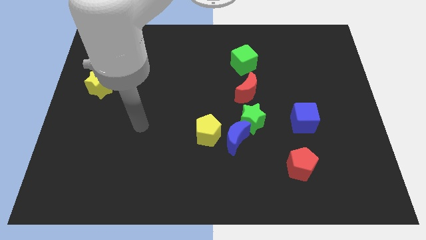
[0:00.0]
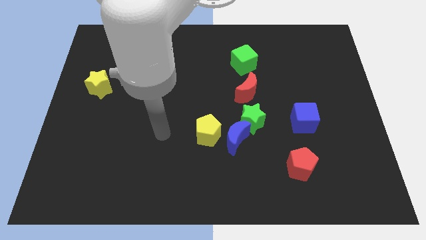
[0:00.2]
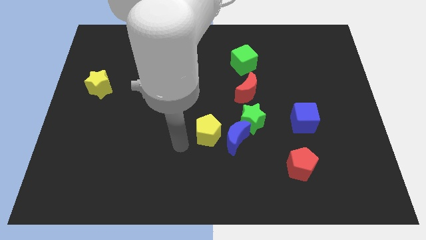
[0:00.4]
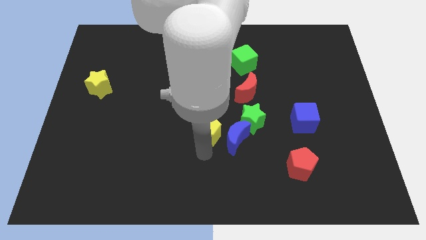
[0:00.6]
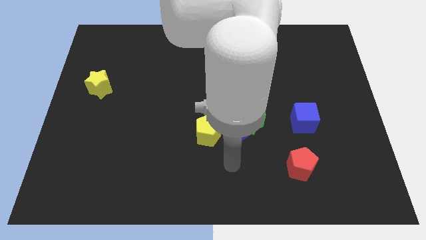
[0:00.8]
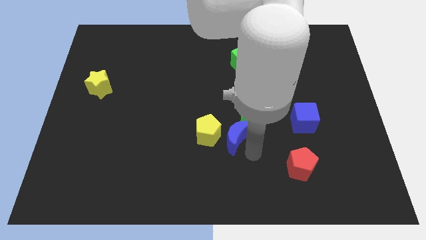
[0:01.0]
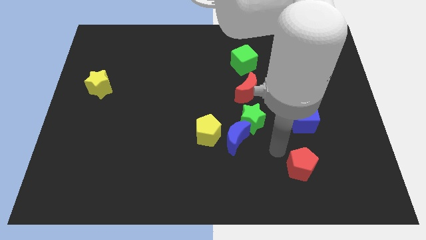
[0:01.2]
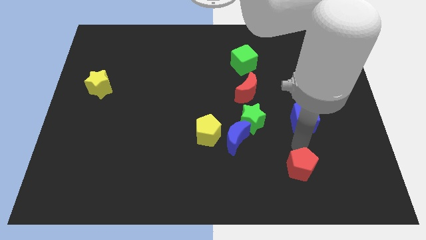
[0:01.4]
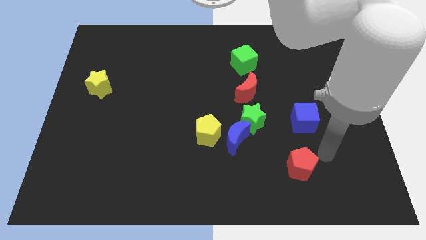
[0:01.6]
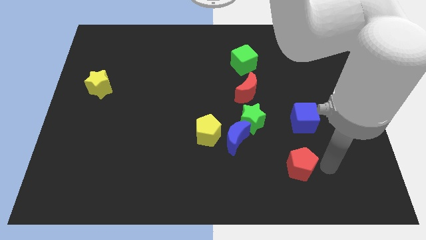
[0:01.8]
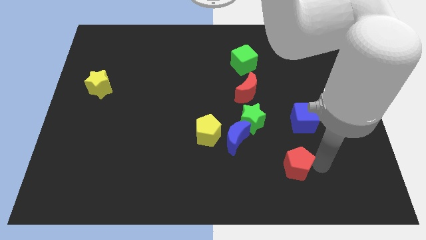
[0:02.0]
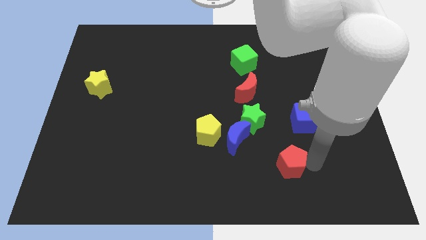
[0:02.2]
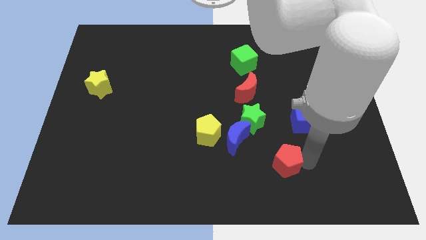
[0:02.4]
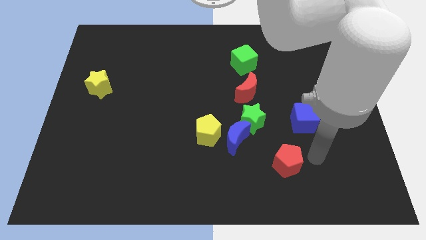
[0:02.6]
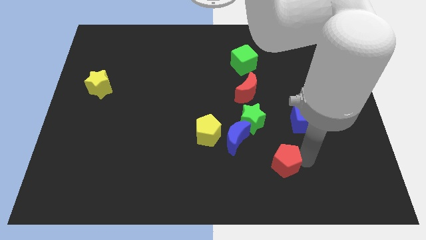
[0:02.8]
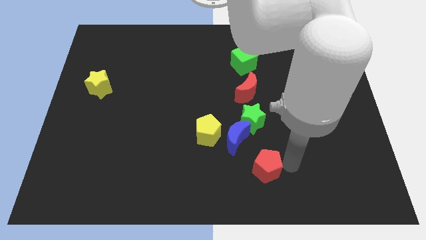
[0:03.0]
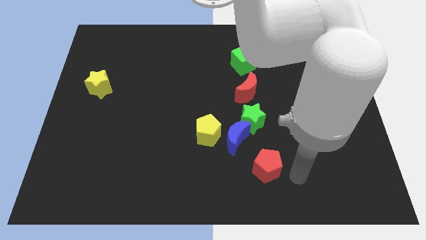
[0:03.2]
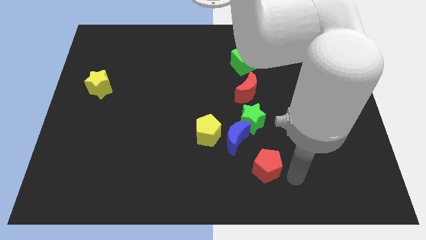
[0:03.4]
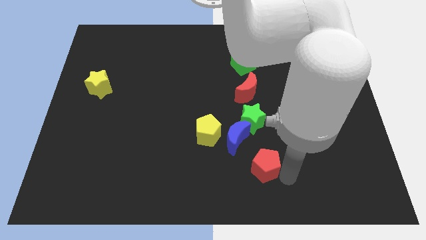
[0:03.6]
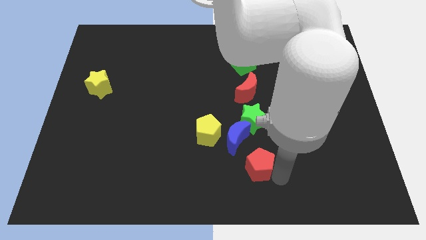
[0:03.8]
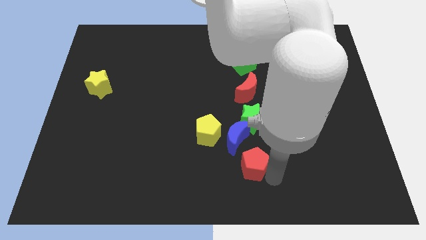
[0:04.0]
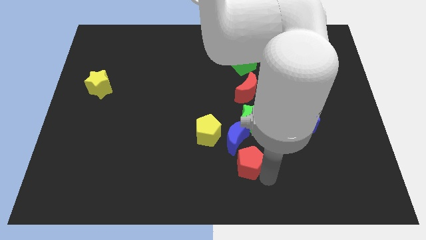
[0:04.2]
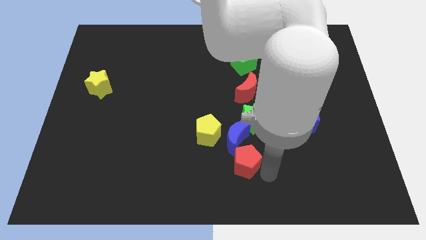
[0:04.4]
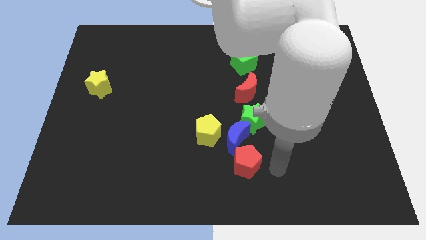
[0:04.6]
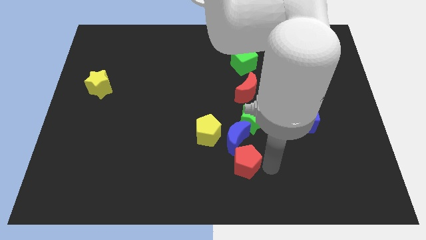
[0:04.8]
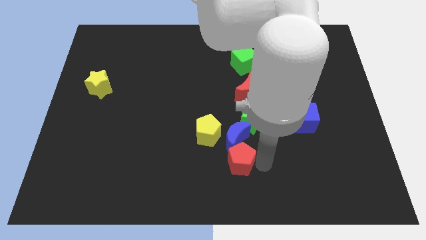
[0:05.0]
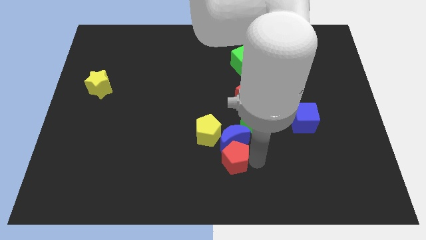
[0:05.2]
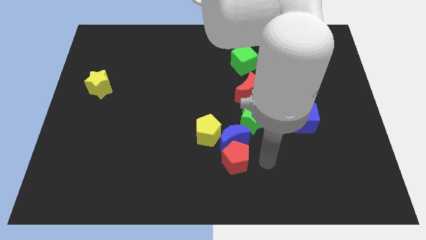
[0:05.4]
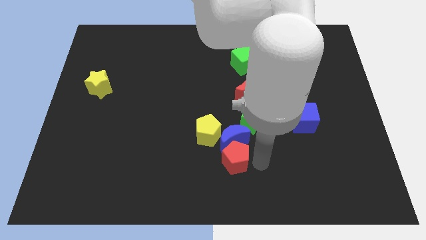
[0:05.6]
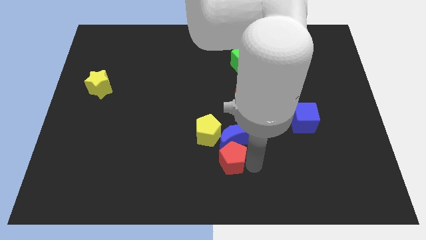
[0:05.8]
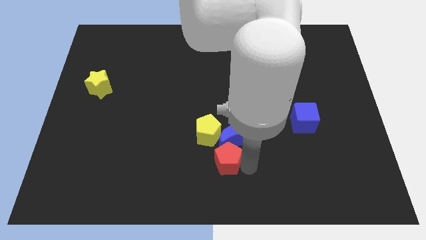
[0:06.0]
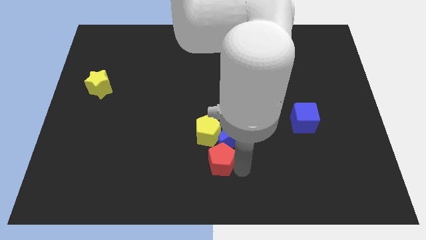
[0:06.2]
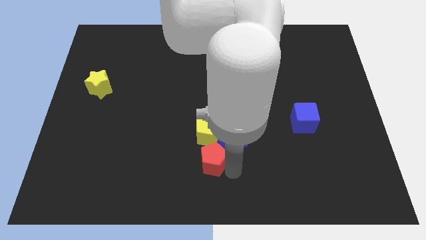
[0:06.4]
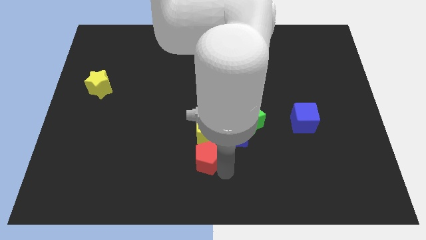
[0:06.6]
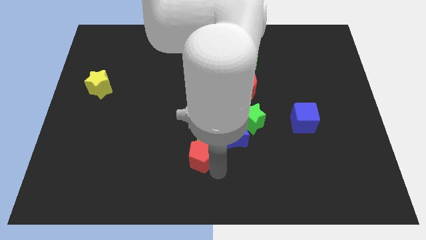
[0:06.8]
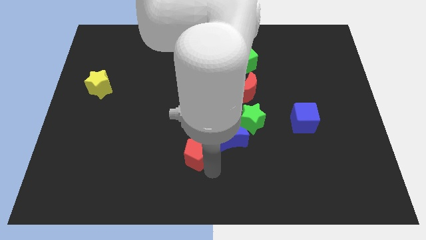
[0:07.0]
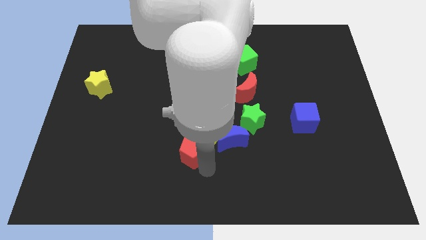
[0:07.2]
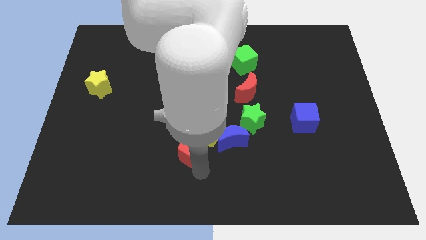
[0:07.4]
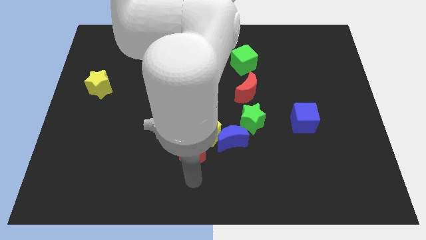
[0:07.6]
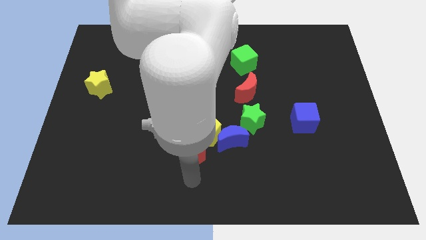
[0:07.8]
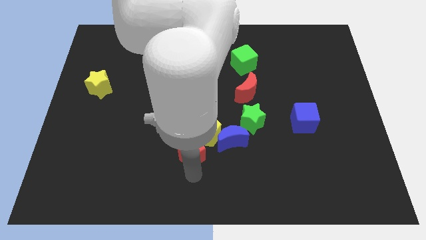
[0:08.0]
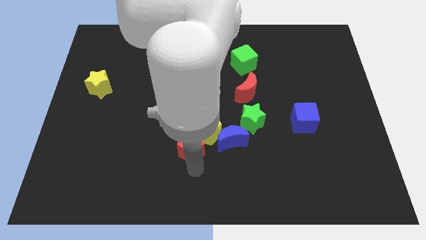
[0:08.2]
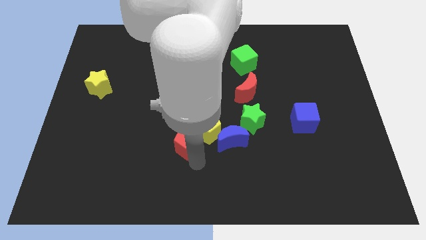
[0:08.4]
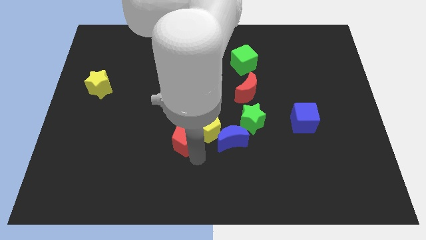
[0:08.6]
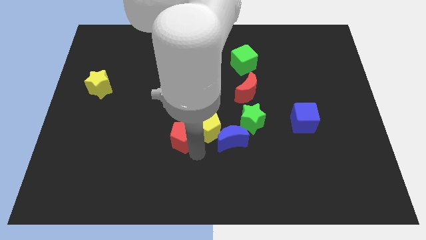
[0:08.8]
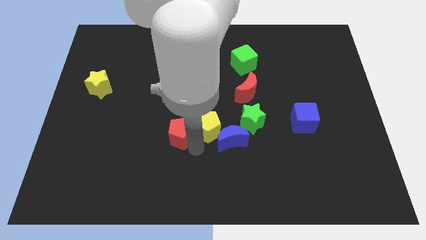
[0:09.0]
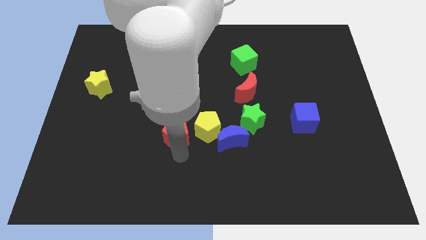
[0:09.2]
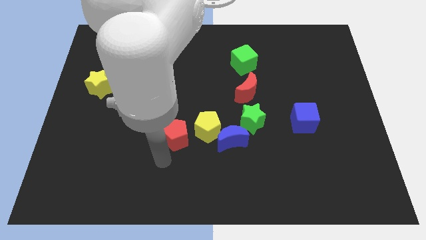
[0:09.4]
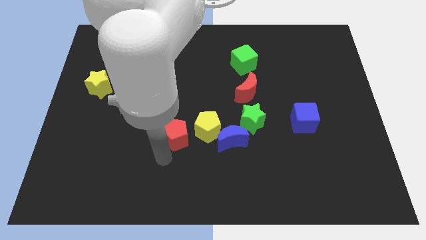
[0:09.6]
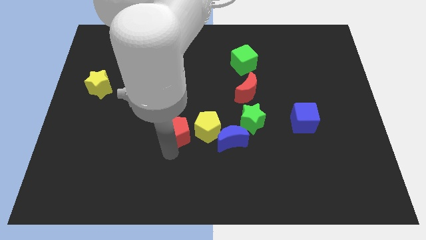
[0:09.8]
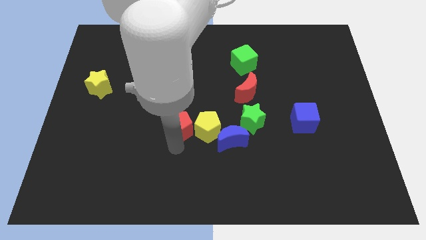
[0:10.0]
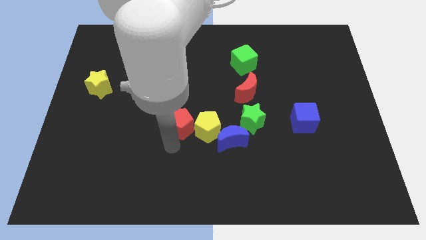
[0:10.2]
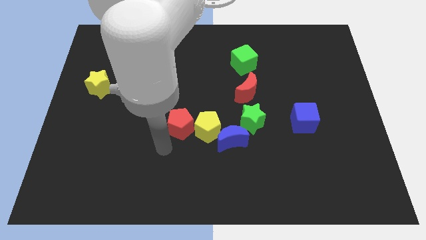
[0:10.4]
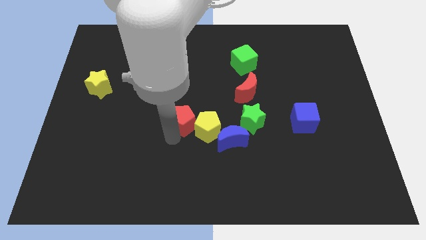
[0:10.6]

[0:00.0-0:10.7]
slide the red pentagon upwards and to the left diagonally

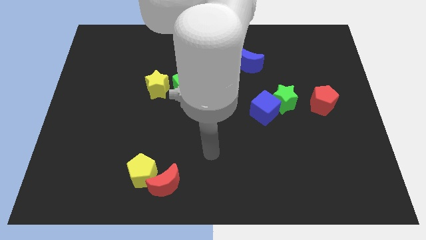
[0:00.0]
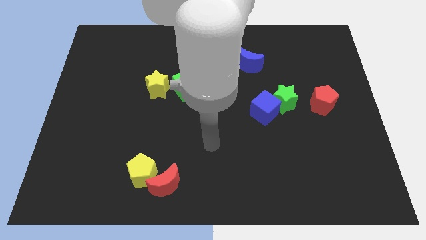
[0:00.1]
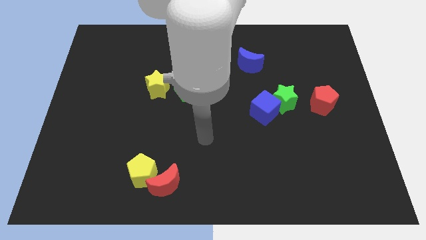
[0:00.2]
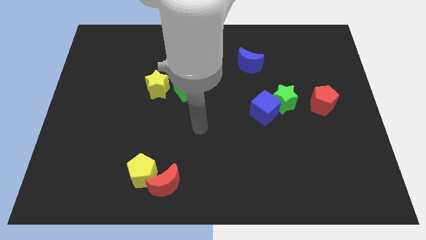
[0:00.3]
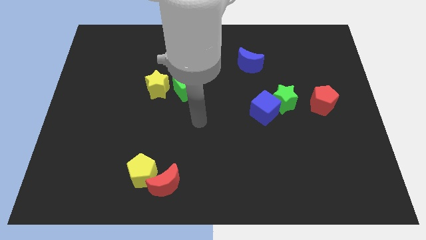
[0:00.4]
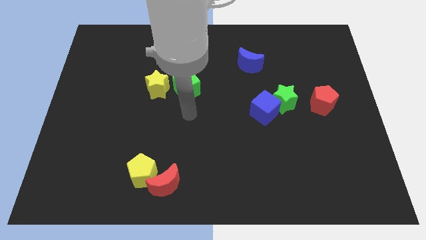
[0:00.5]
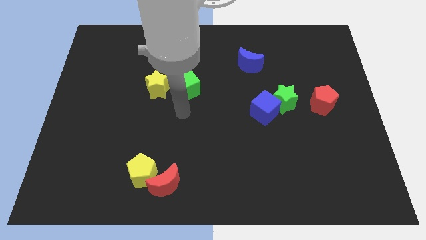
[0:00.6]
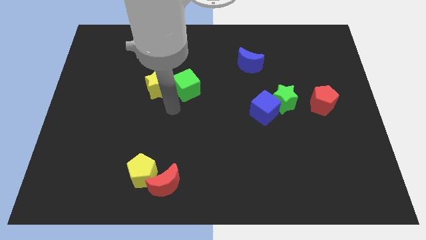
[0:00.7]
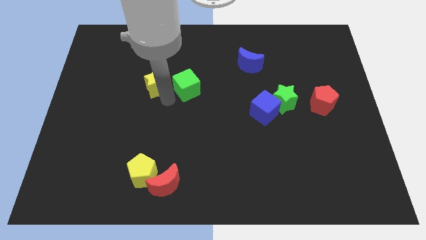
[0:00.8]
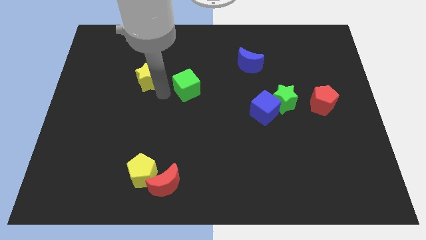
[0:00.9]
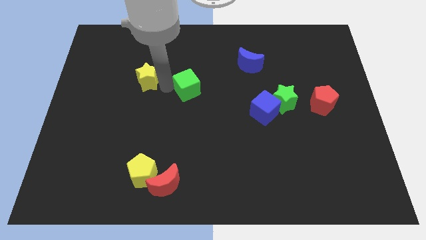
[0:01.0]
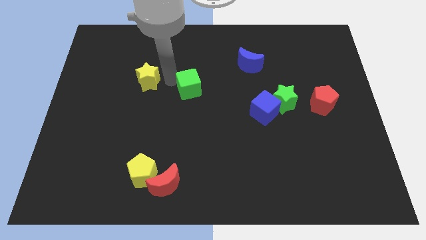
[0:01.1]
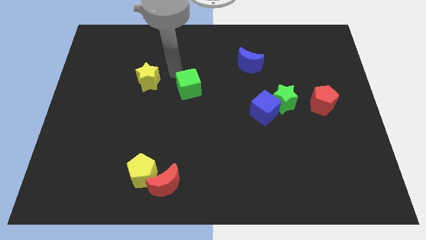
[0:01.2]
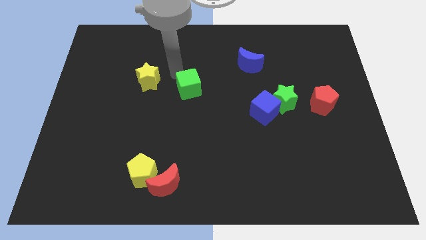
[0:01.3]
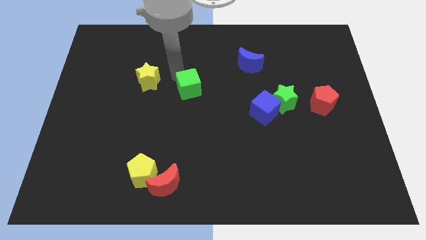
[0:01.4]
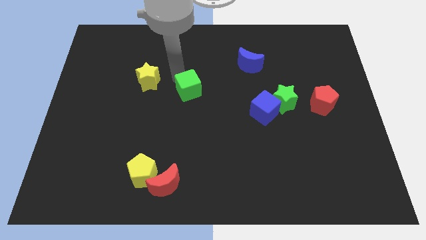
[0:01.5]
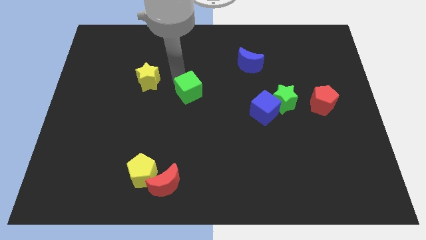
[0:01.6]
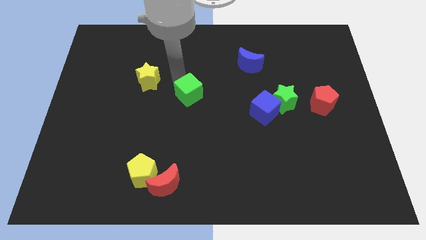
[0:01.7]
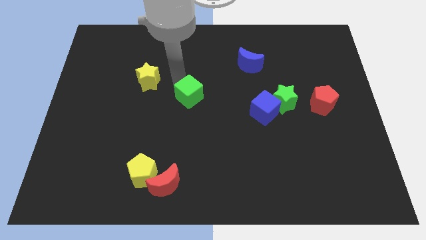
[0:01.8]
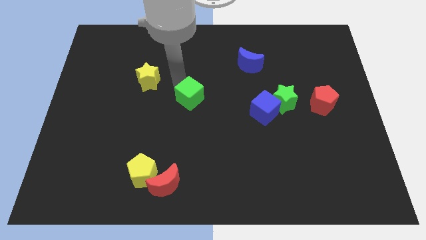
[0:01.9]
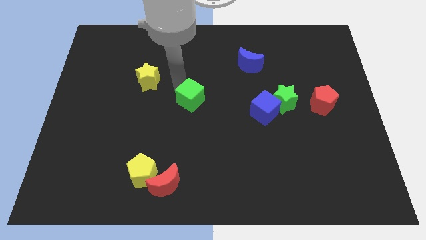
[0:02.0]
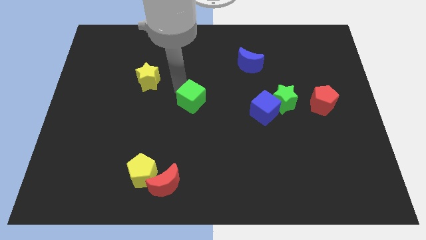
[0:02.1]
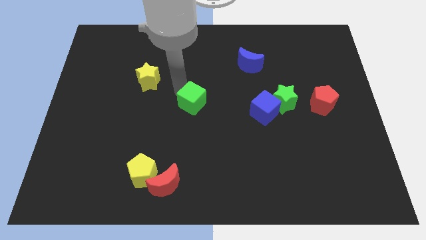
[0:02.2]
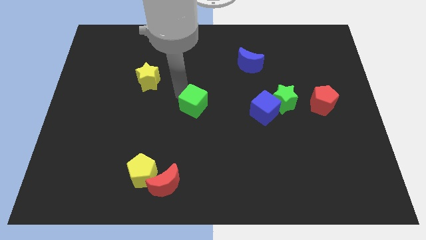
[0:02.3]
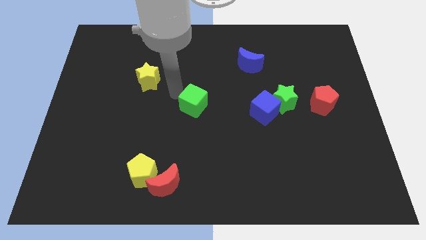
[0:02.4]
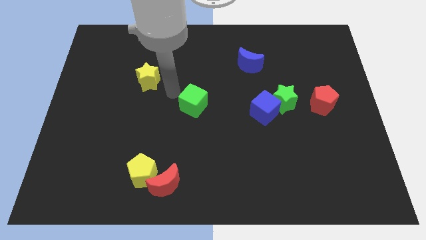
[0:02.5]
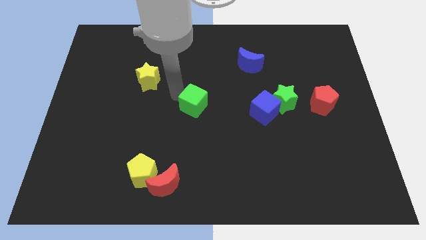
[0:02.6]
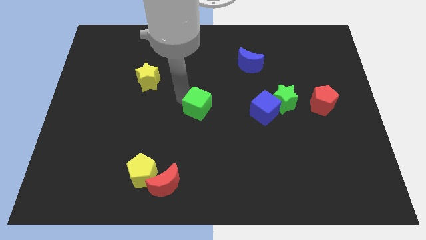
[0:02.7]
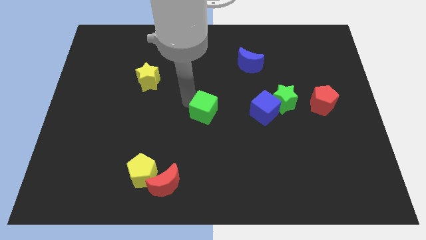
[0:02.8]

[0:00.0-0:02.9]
move the green cube a little bit diagonally downwards and right
